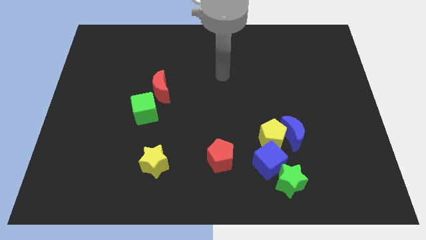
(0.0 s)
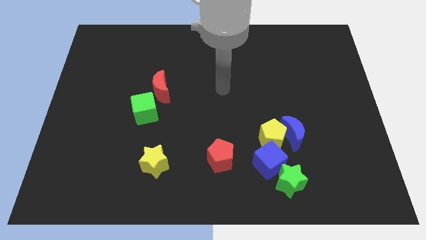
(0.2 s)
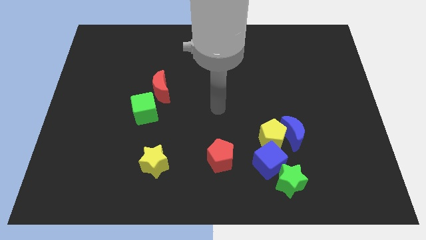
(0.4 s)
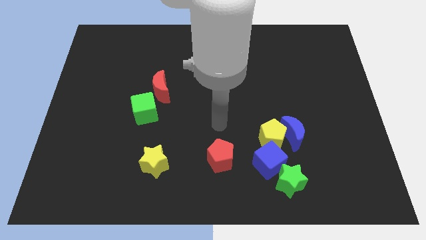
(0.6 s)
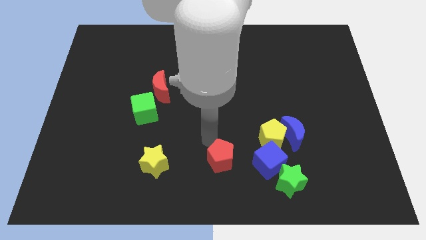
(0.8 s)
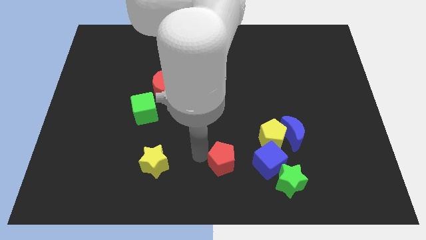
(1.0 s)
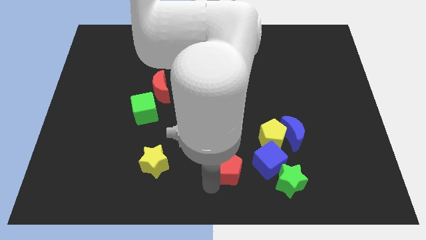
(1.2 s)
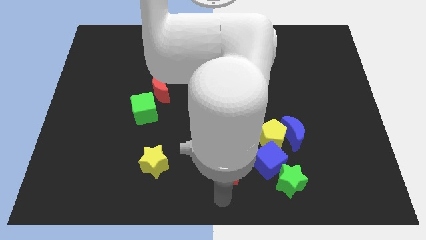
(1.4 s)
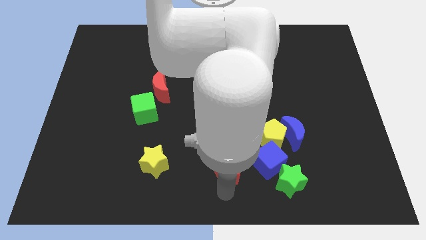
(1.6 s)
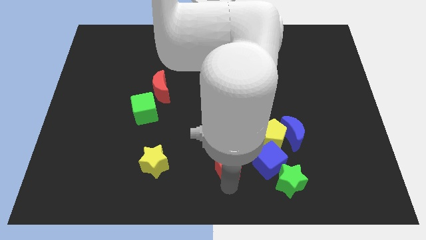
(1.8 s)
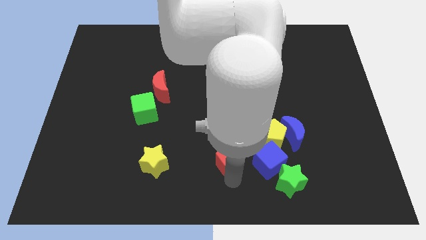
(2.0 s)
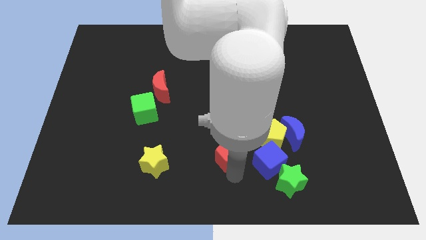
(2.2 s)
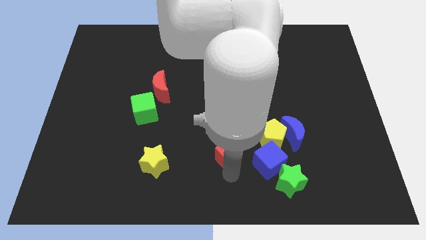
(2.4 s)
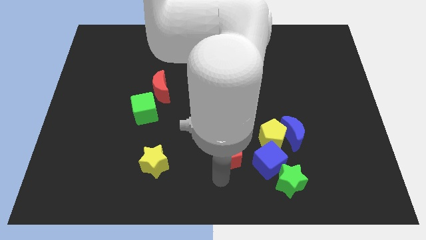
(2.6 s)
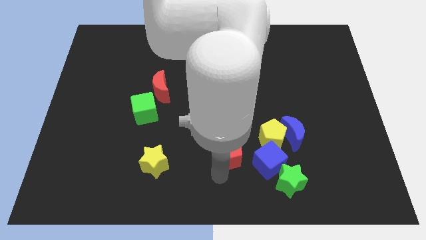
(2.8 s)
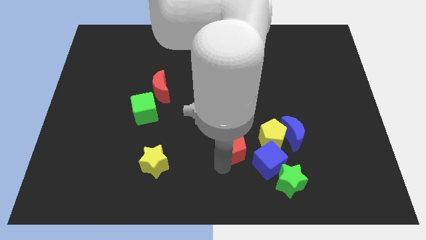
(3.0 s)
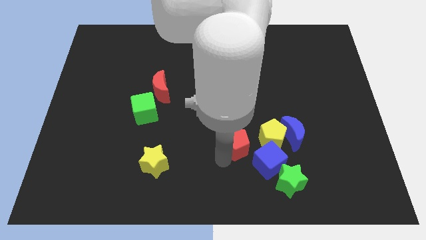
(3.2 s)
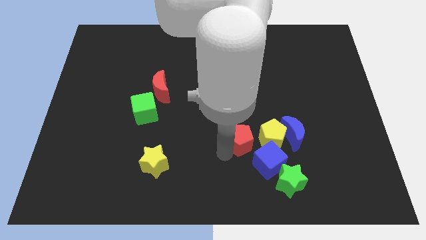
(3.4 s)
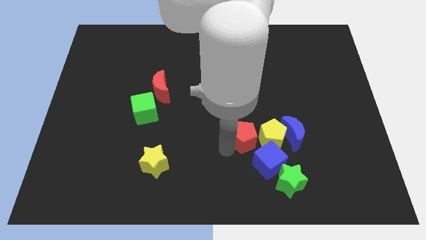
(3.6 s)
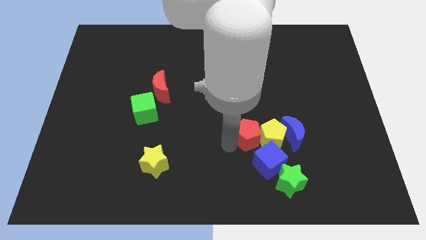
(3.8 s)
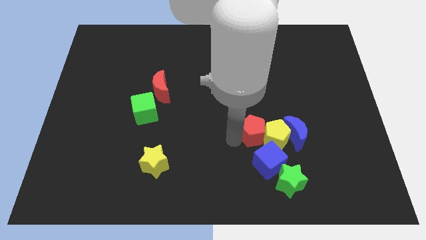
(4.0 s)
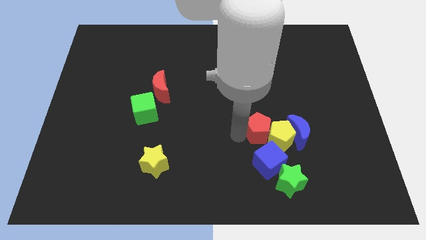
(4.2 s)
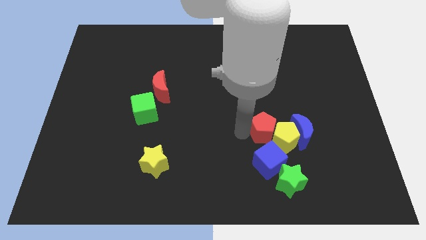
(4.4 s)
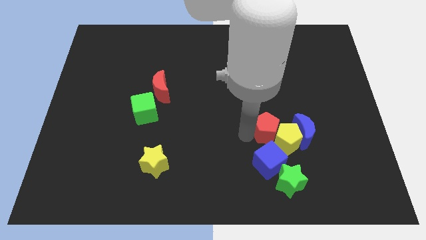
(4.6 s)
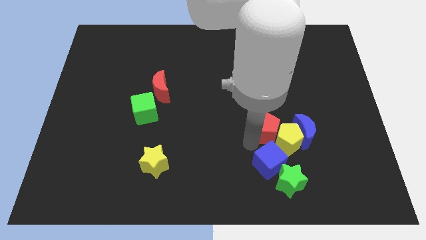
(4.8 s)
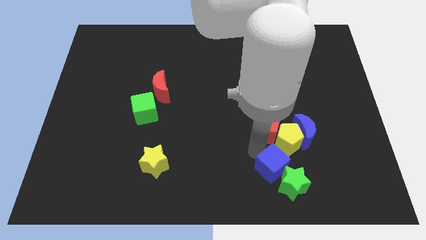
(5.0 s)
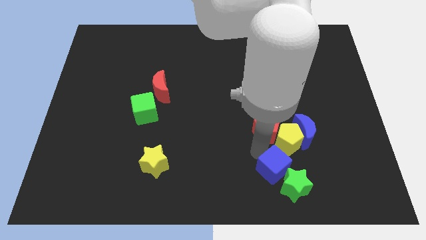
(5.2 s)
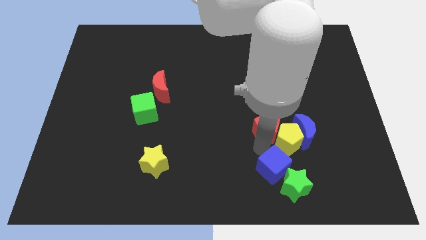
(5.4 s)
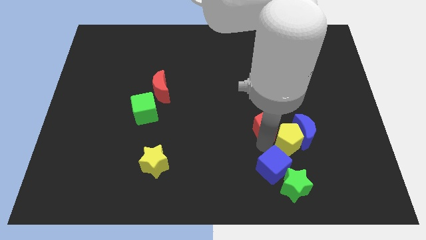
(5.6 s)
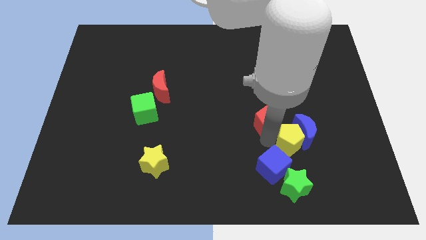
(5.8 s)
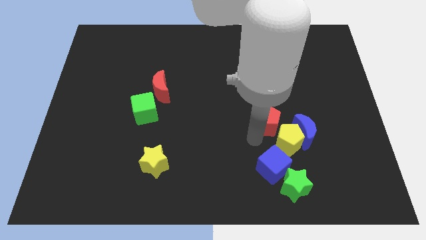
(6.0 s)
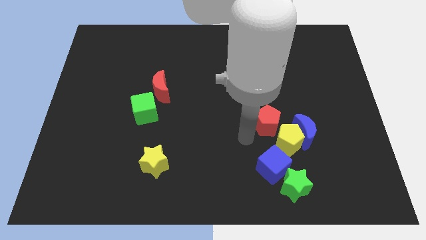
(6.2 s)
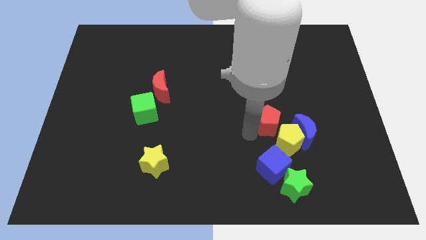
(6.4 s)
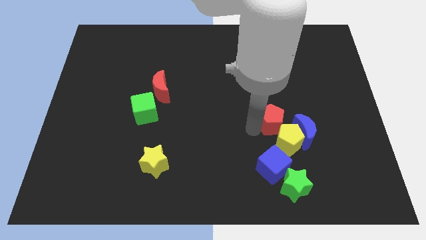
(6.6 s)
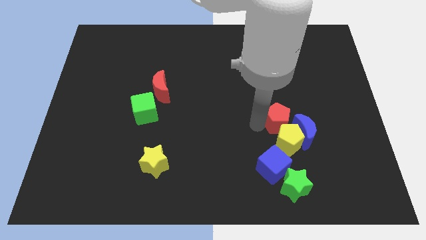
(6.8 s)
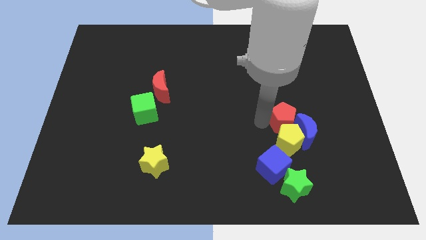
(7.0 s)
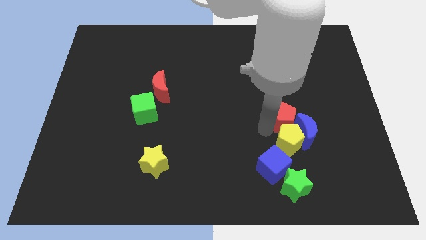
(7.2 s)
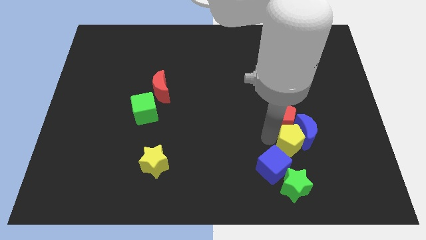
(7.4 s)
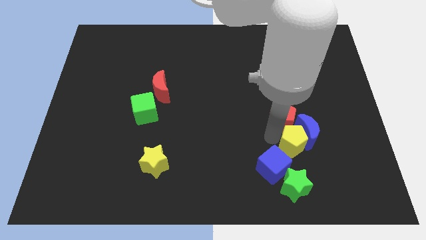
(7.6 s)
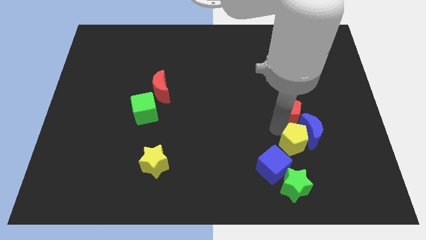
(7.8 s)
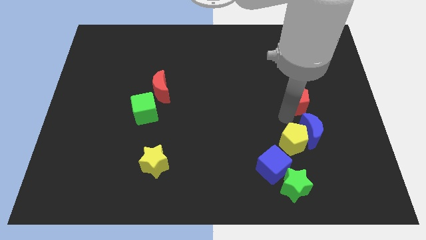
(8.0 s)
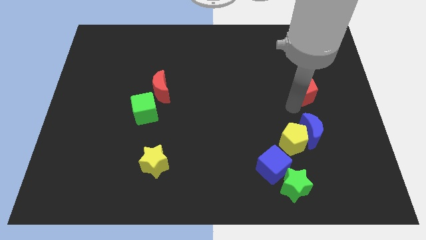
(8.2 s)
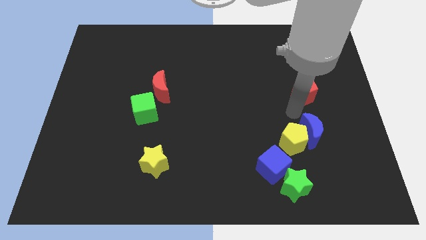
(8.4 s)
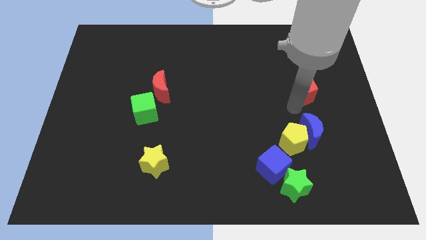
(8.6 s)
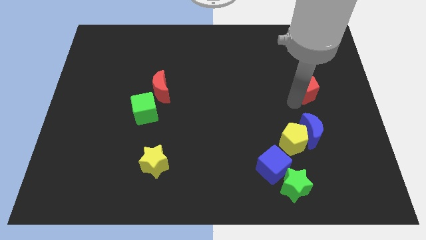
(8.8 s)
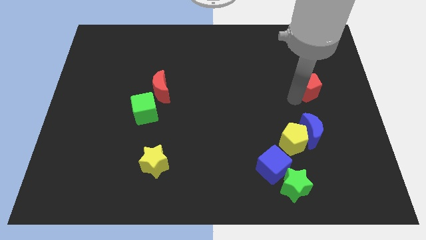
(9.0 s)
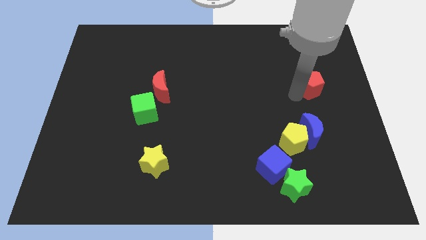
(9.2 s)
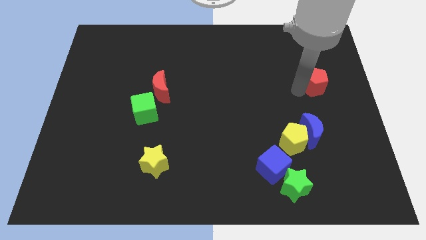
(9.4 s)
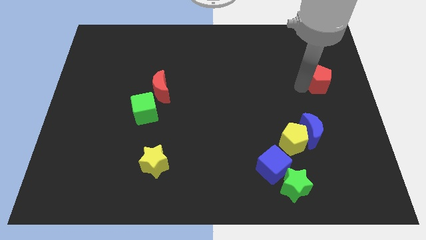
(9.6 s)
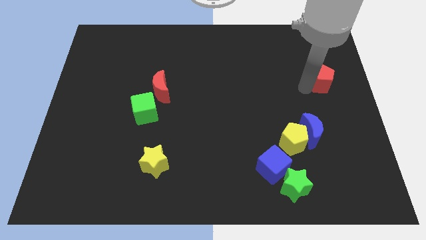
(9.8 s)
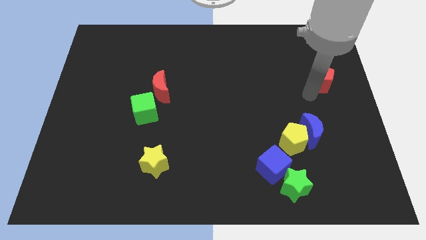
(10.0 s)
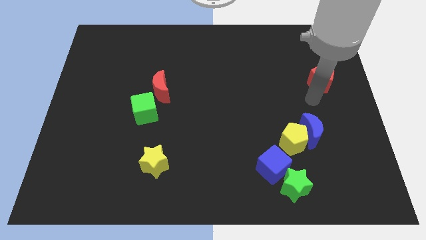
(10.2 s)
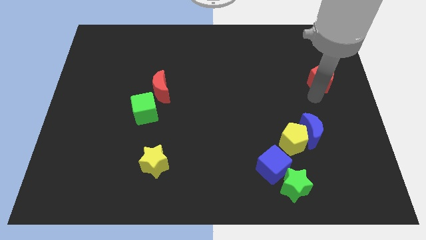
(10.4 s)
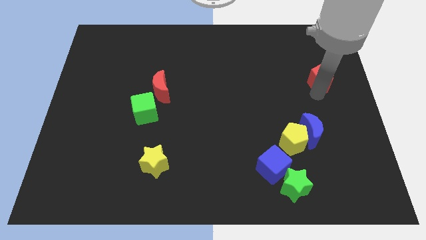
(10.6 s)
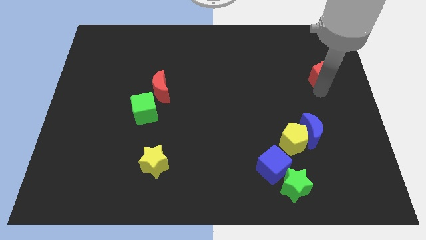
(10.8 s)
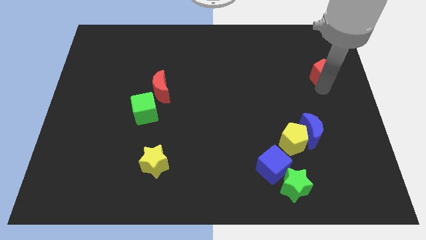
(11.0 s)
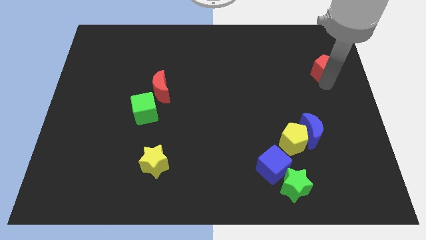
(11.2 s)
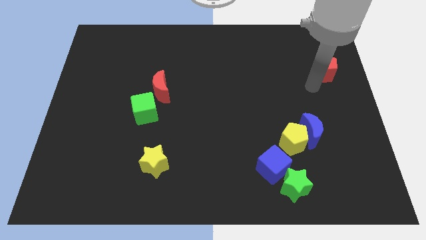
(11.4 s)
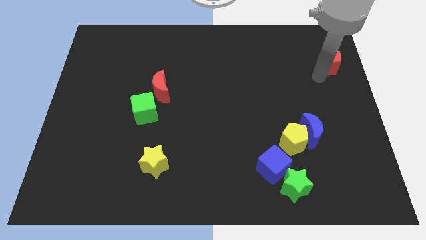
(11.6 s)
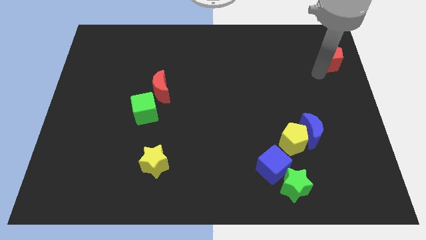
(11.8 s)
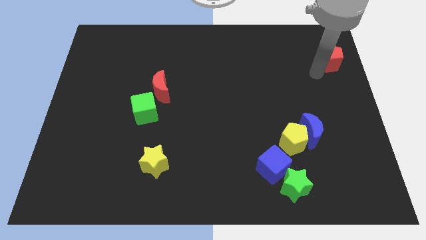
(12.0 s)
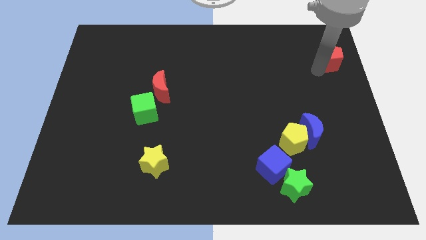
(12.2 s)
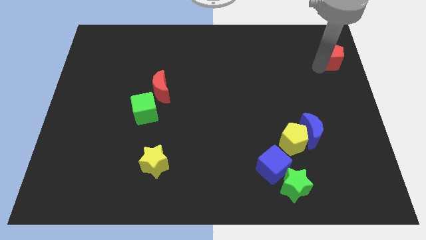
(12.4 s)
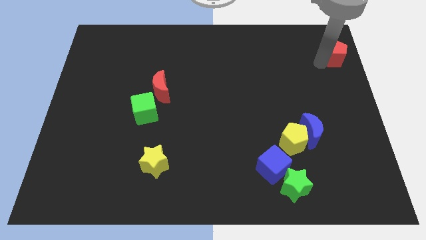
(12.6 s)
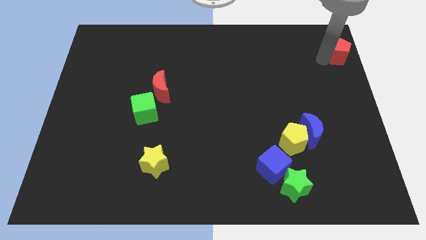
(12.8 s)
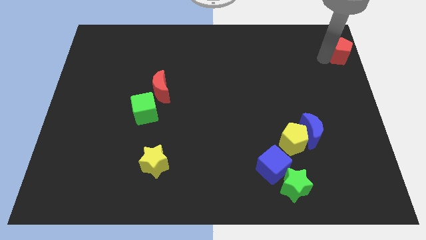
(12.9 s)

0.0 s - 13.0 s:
push the red pentagon to the upper right corner

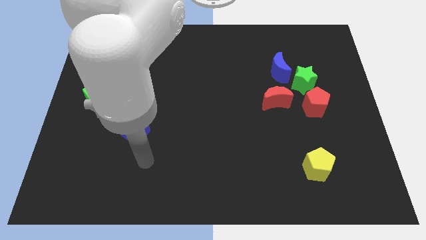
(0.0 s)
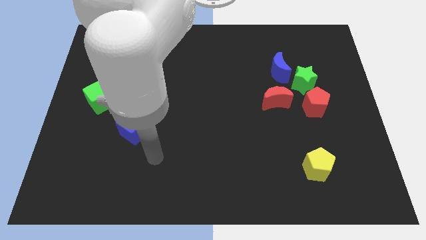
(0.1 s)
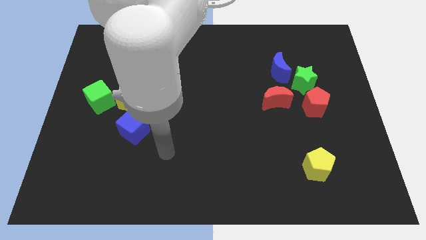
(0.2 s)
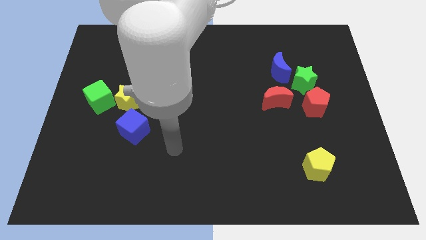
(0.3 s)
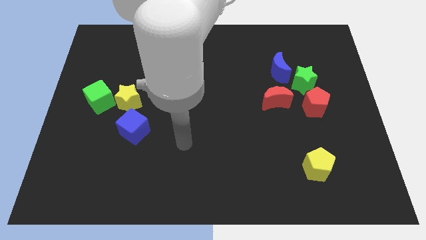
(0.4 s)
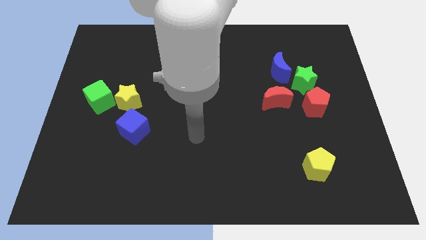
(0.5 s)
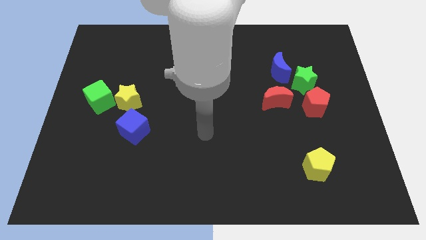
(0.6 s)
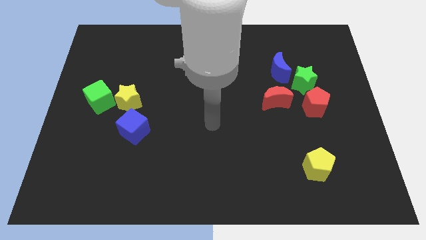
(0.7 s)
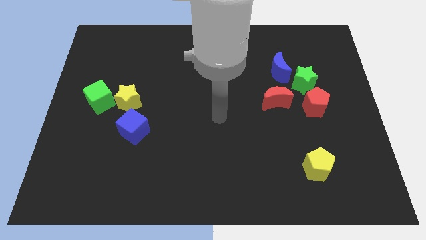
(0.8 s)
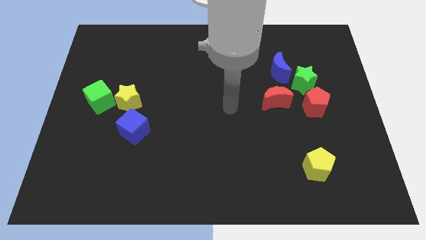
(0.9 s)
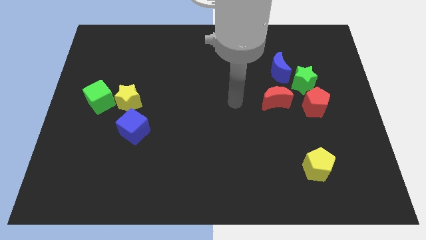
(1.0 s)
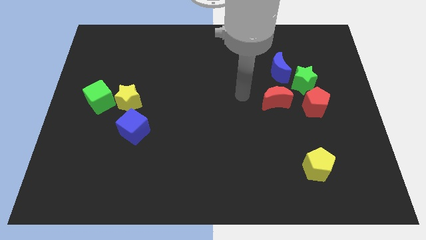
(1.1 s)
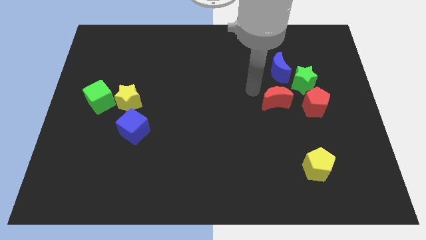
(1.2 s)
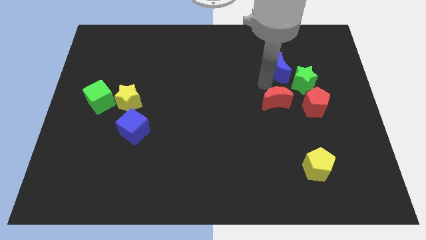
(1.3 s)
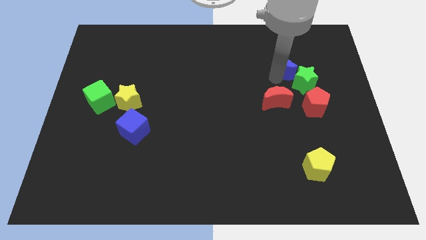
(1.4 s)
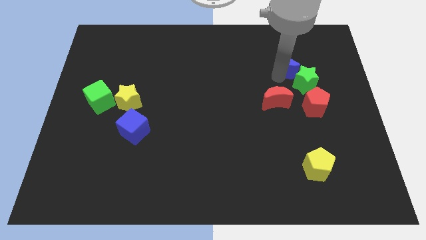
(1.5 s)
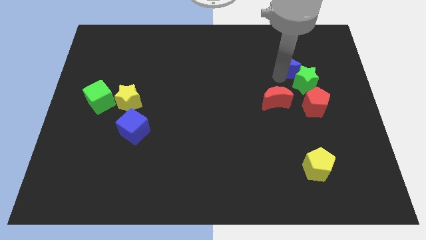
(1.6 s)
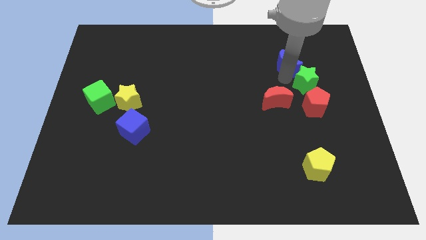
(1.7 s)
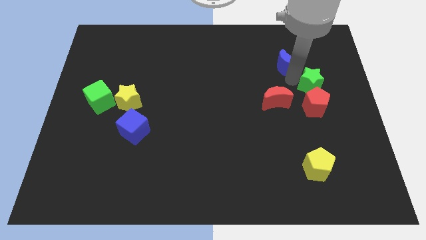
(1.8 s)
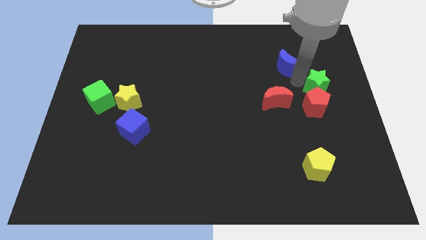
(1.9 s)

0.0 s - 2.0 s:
put the green star to the center right
